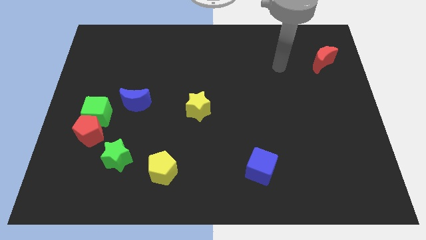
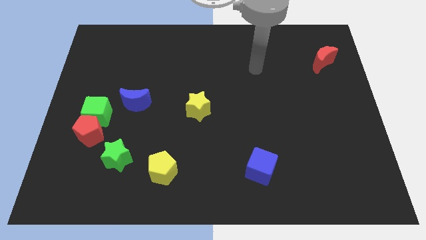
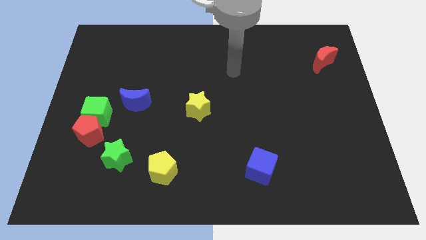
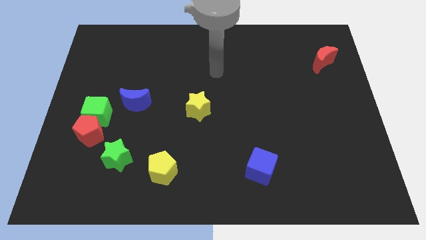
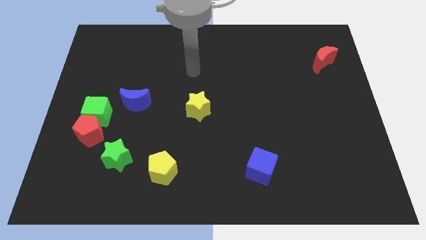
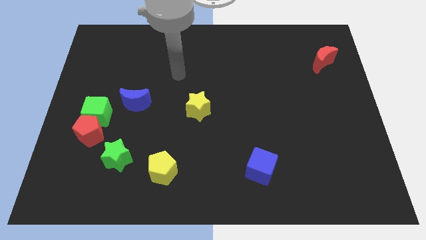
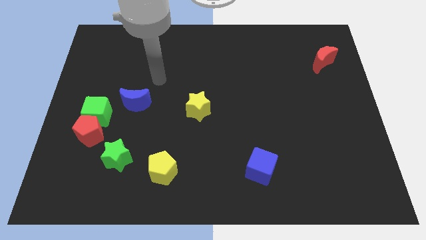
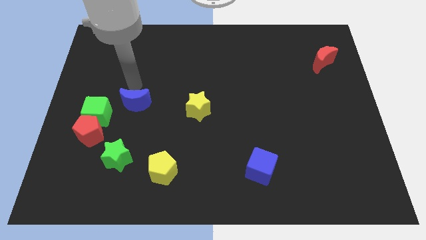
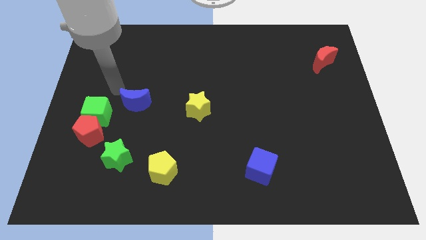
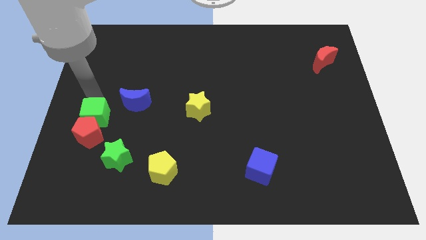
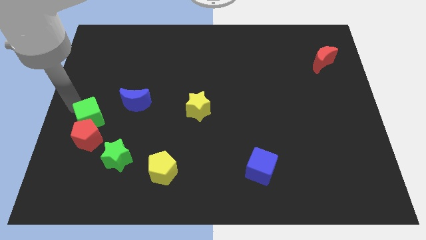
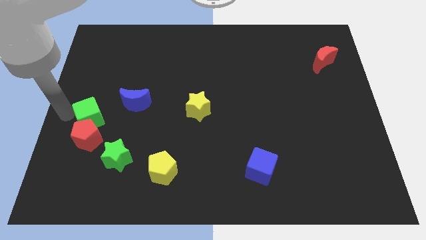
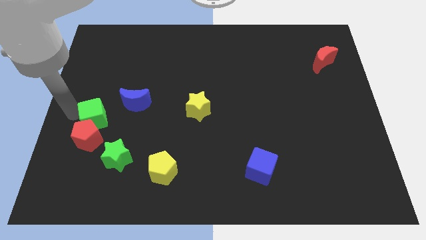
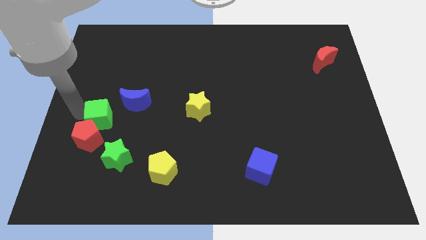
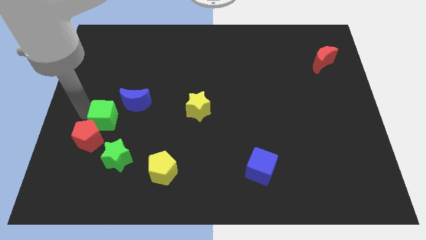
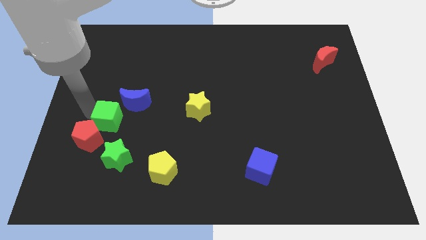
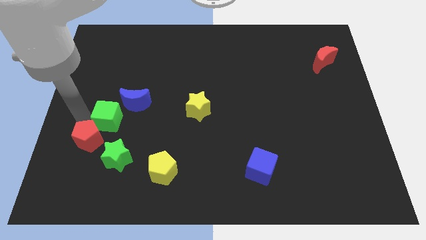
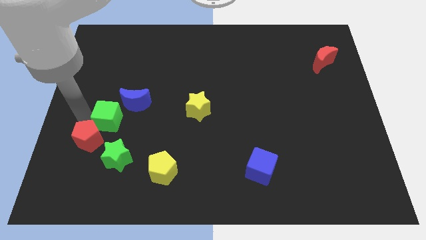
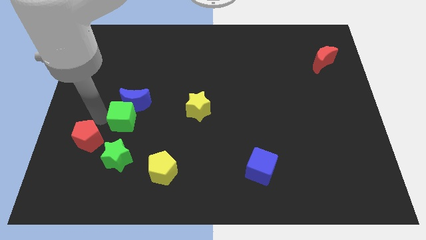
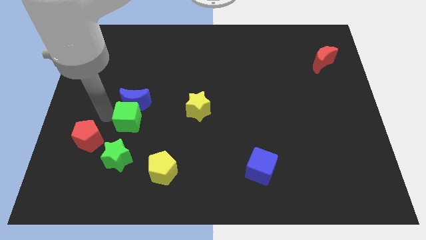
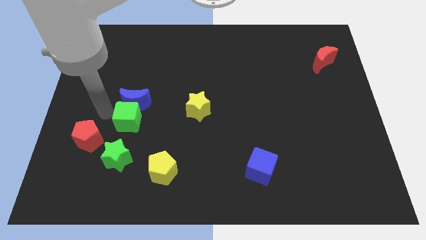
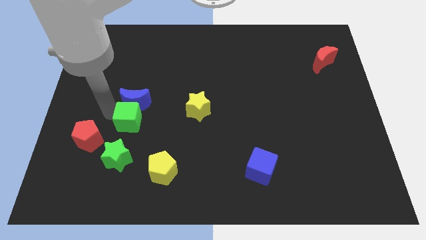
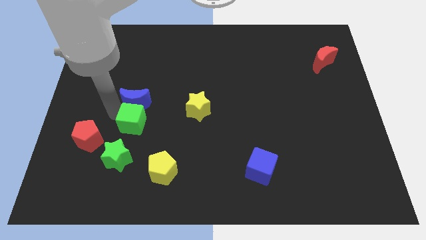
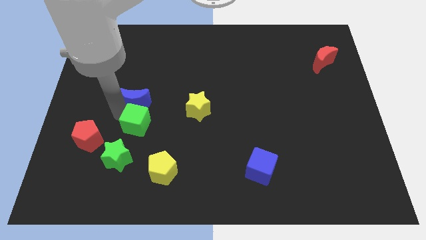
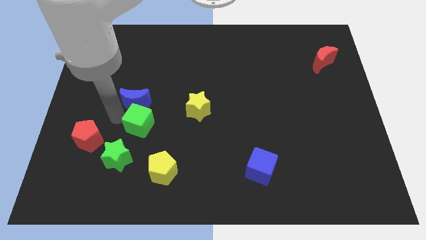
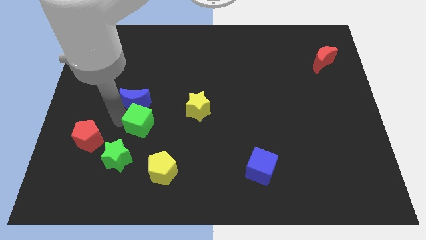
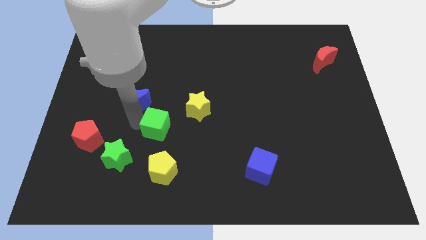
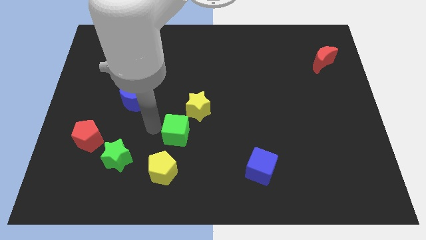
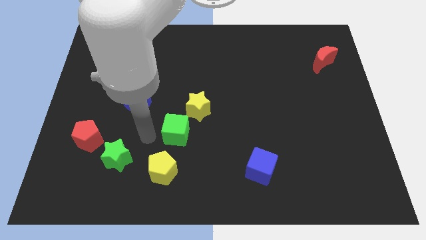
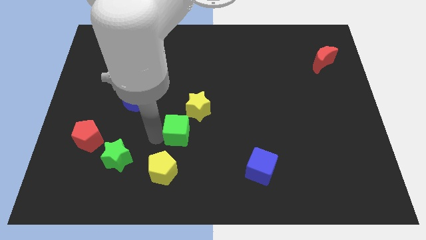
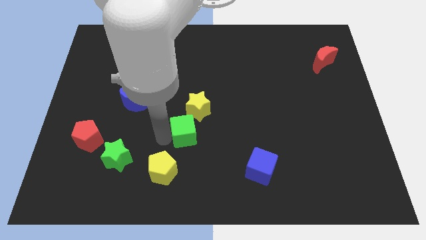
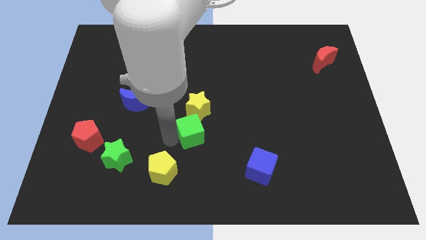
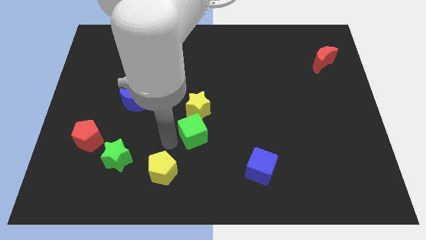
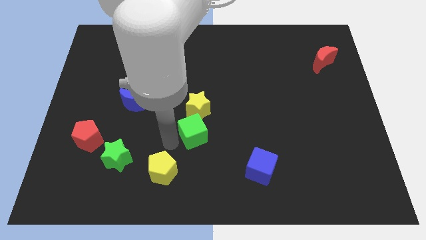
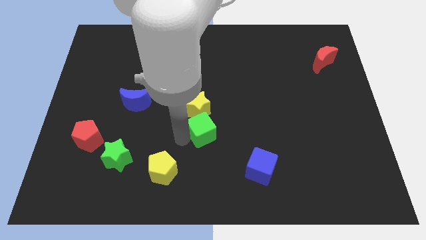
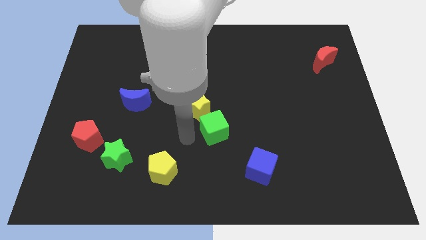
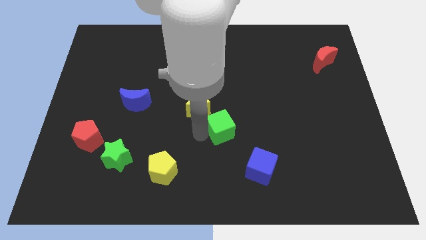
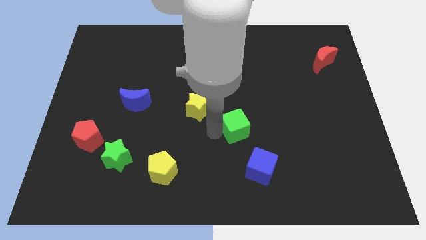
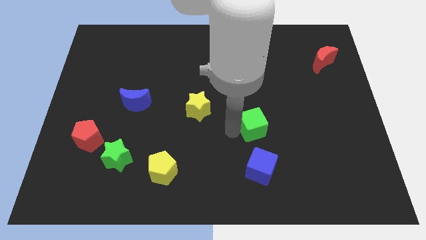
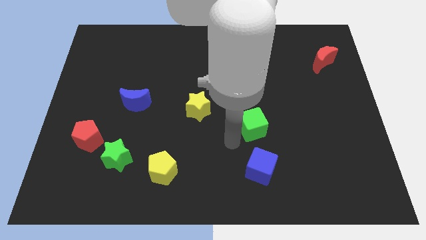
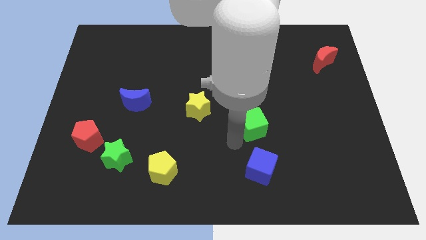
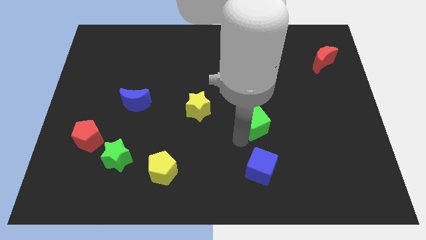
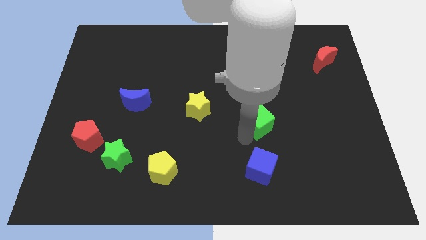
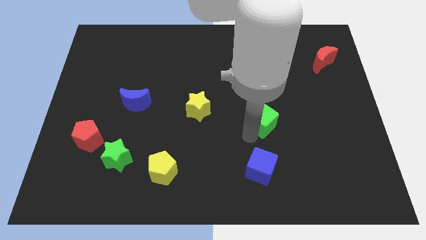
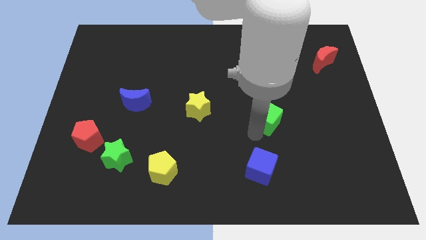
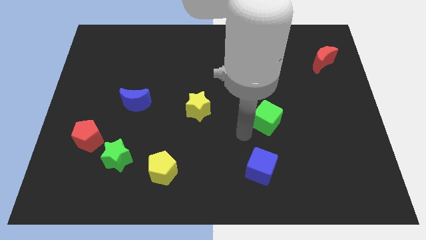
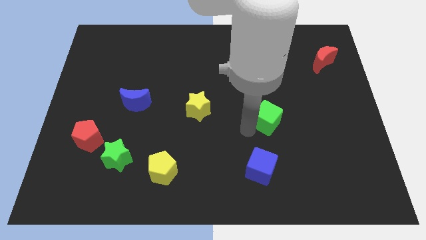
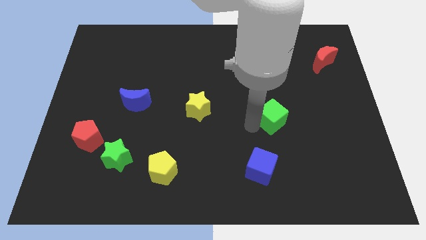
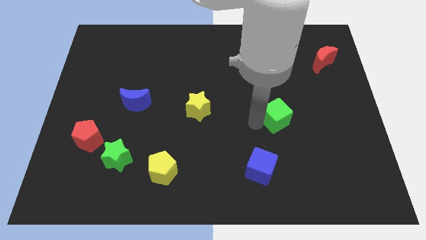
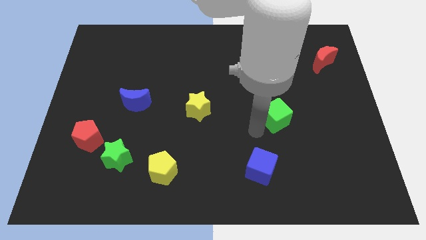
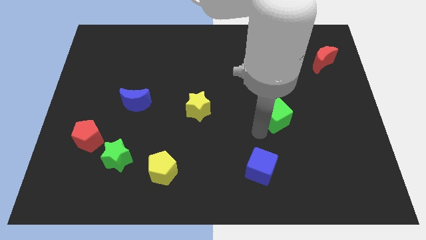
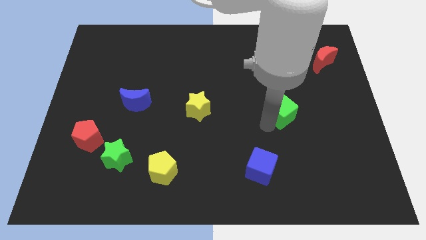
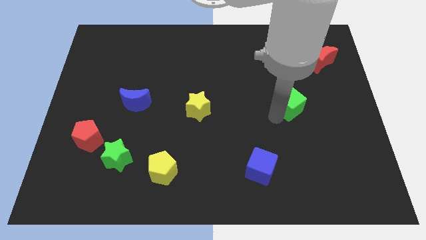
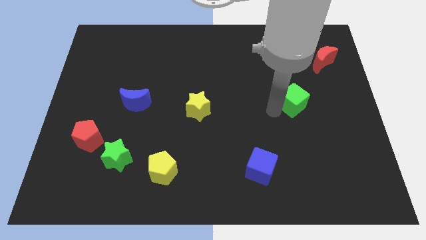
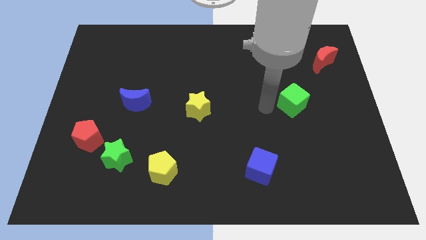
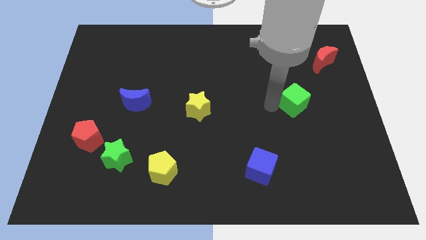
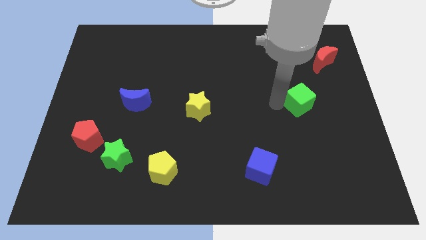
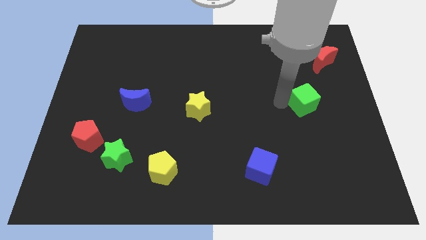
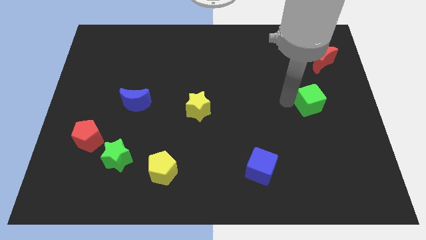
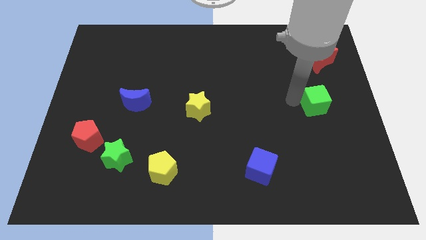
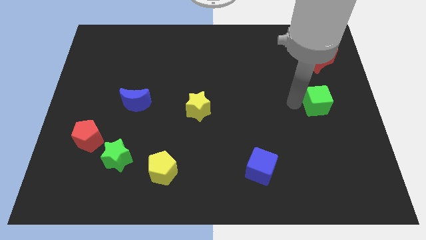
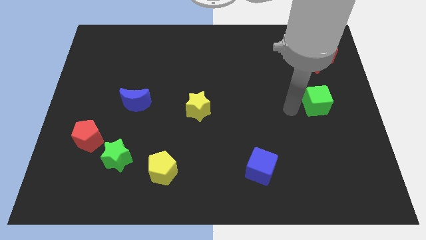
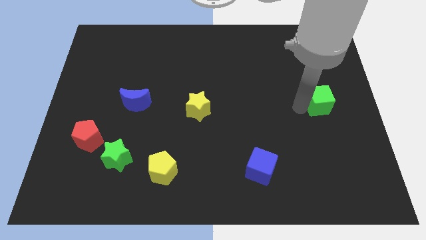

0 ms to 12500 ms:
push the green cube to the right side of the board
